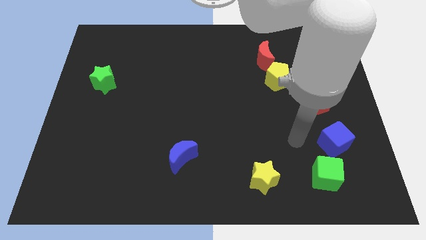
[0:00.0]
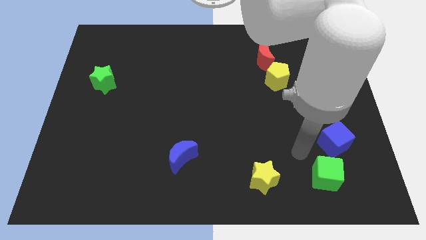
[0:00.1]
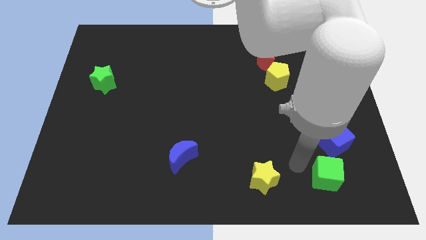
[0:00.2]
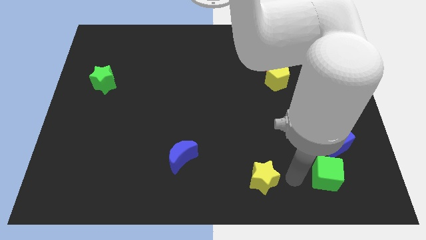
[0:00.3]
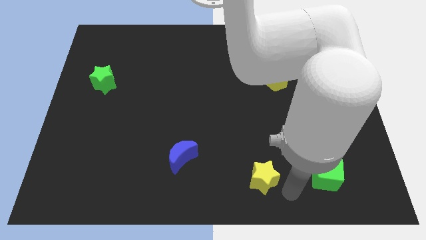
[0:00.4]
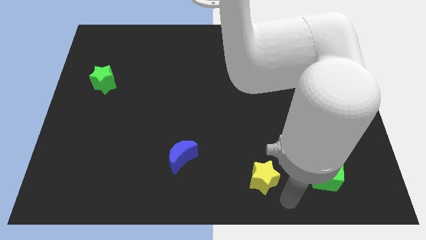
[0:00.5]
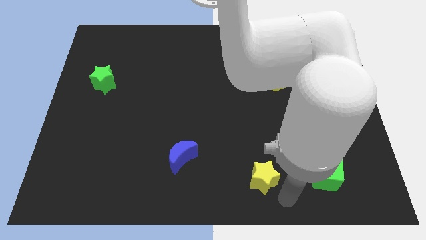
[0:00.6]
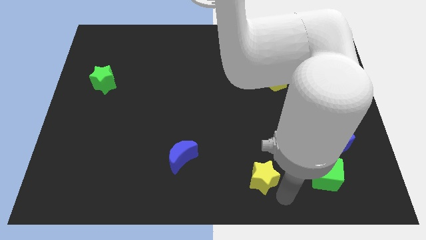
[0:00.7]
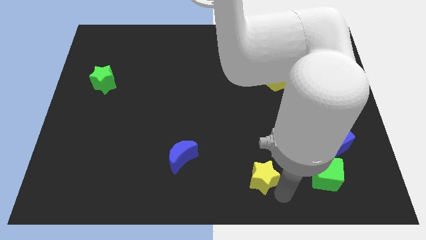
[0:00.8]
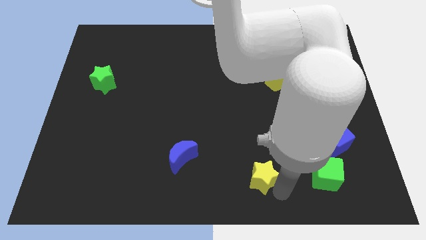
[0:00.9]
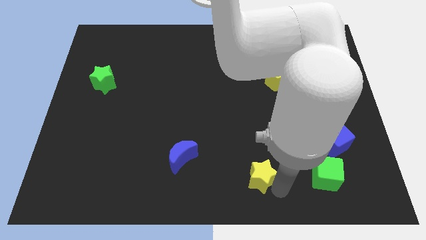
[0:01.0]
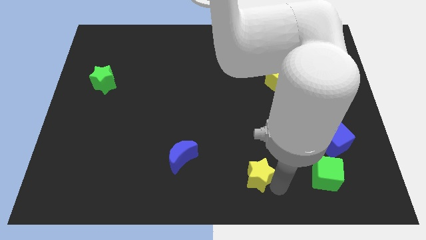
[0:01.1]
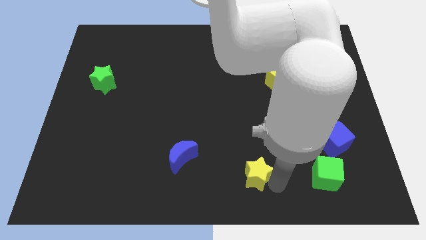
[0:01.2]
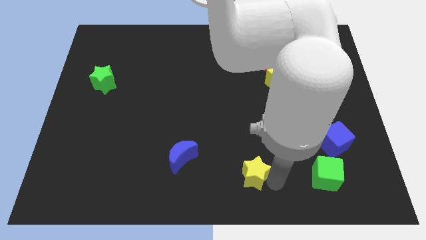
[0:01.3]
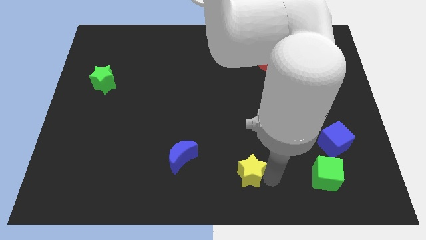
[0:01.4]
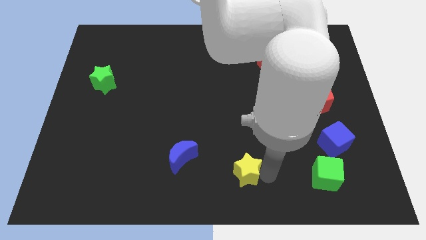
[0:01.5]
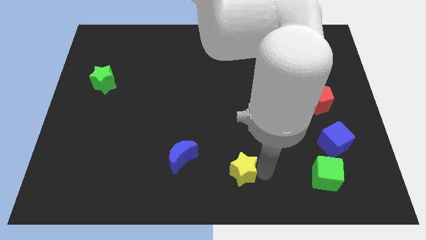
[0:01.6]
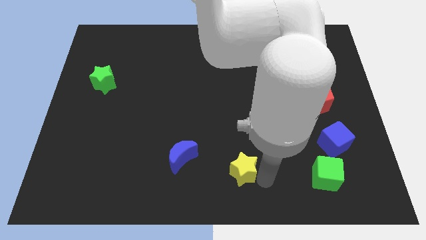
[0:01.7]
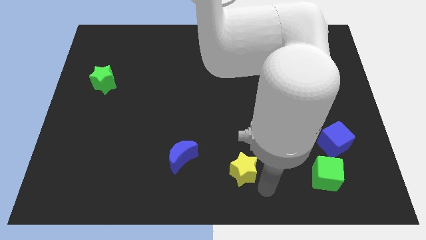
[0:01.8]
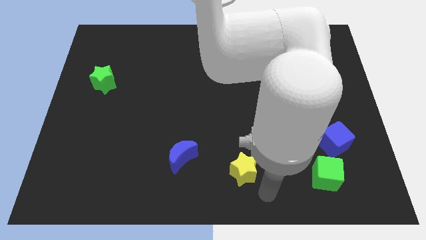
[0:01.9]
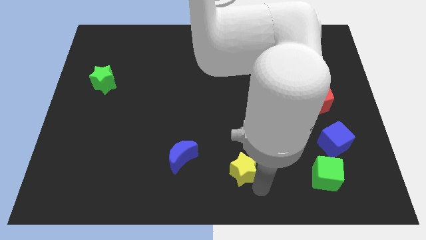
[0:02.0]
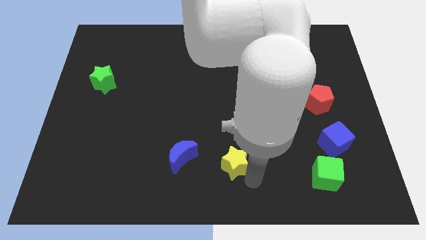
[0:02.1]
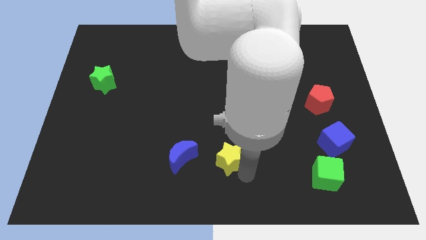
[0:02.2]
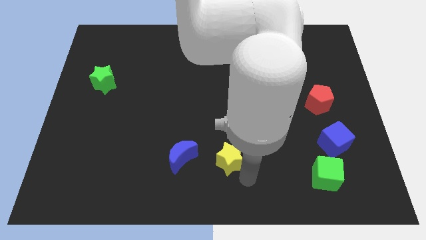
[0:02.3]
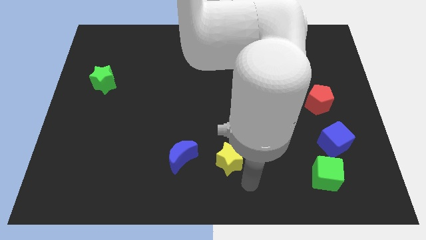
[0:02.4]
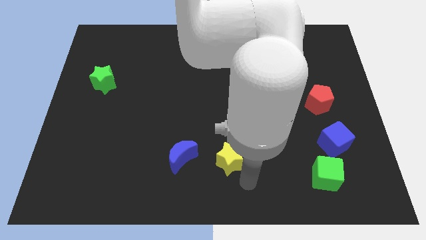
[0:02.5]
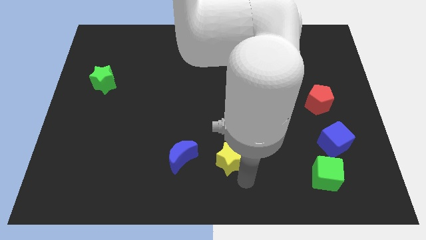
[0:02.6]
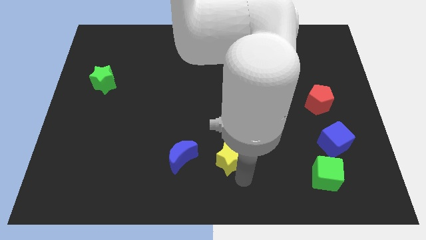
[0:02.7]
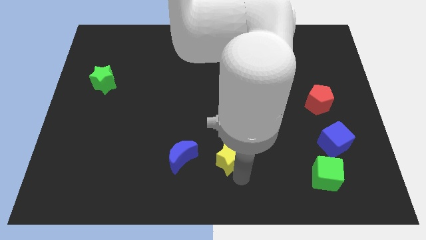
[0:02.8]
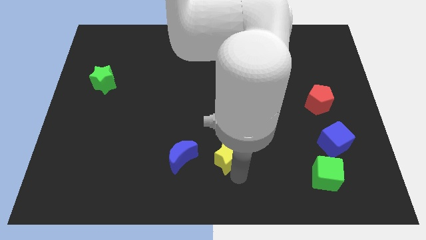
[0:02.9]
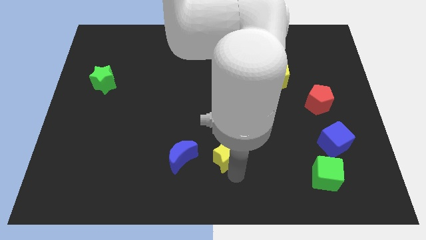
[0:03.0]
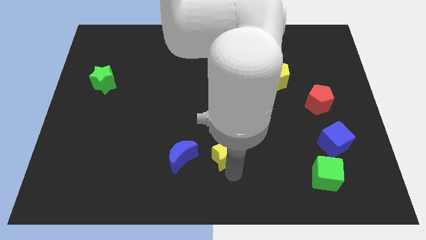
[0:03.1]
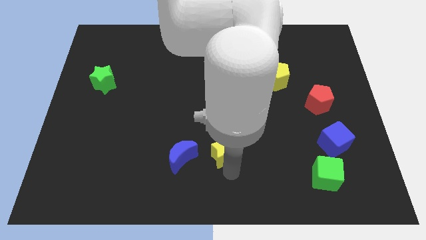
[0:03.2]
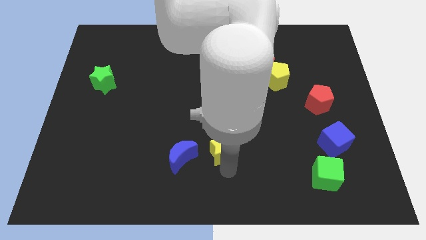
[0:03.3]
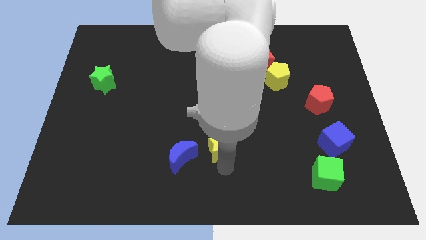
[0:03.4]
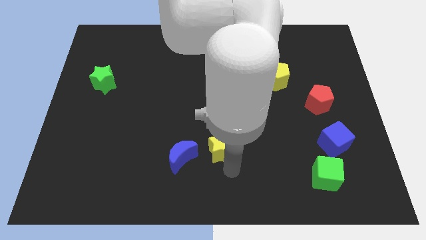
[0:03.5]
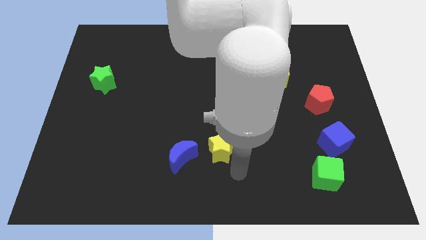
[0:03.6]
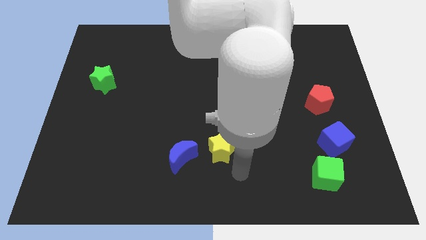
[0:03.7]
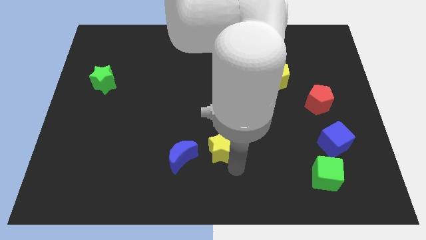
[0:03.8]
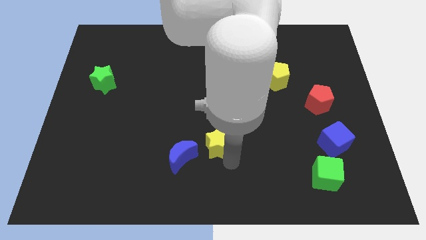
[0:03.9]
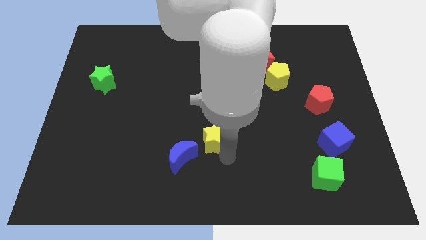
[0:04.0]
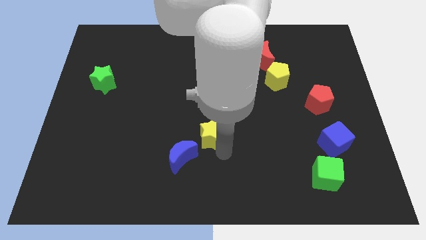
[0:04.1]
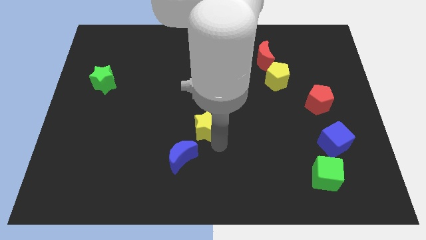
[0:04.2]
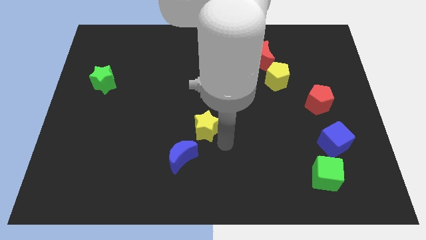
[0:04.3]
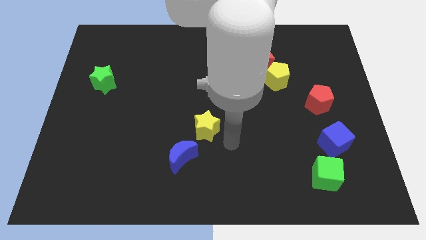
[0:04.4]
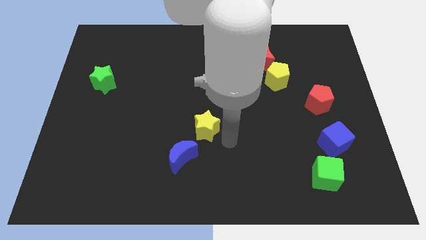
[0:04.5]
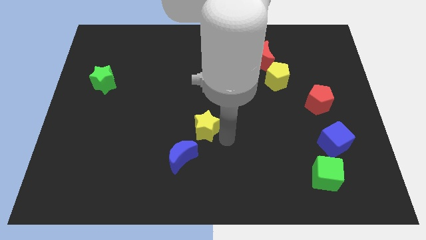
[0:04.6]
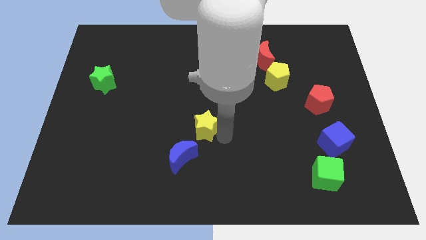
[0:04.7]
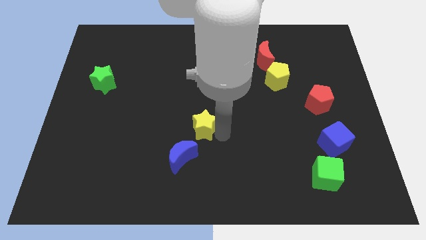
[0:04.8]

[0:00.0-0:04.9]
put the yellow star to the top of the blue moon

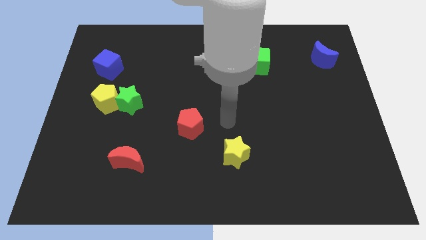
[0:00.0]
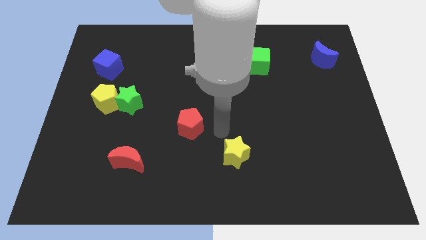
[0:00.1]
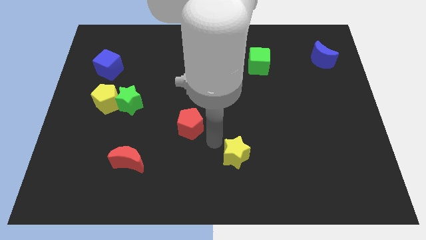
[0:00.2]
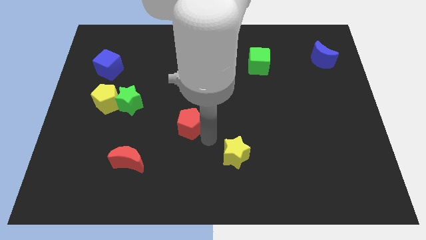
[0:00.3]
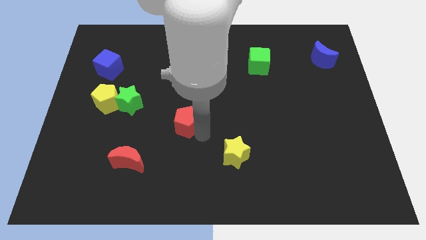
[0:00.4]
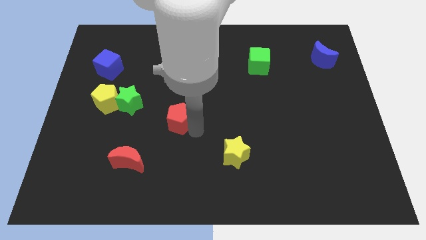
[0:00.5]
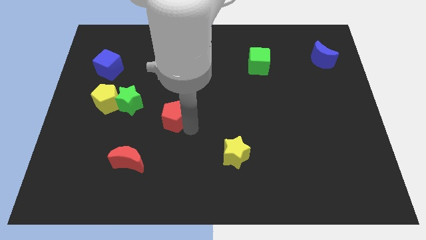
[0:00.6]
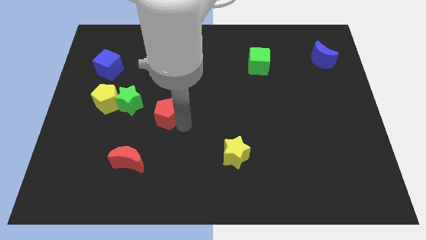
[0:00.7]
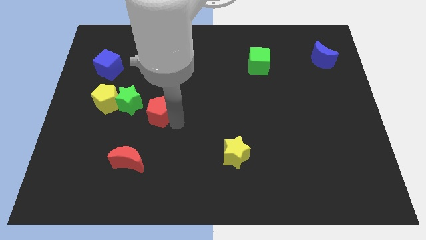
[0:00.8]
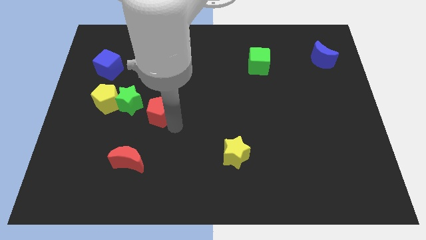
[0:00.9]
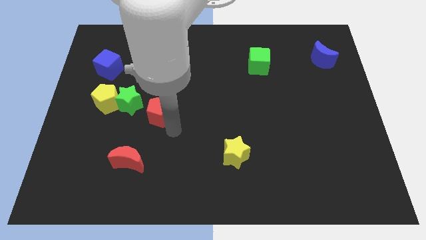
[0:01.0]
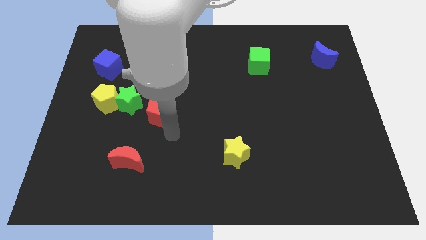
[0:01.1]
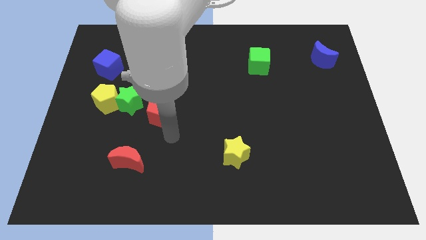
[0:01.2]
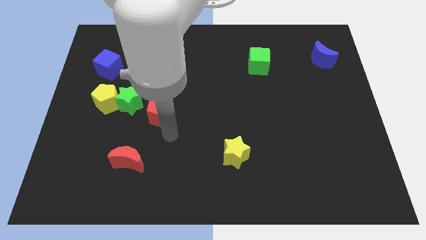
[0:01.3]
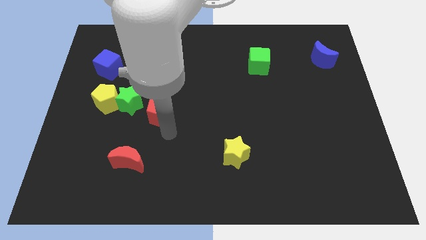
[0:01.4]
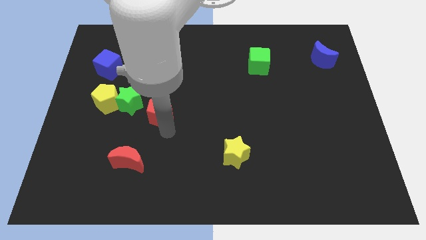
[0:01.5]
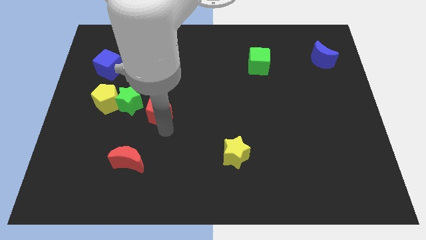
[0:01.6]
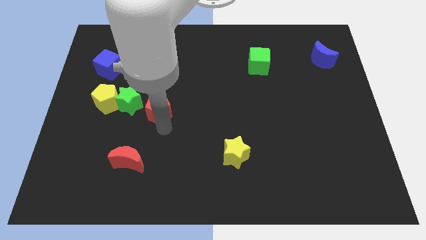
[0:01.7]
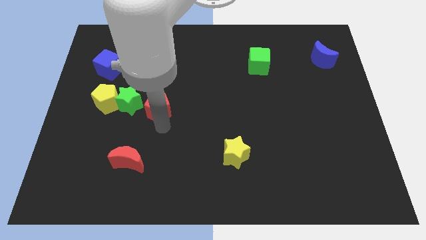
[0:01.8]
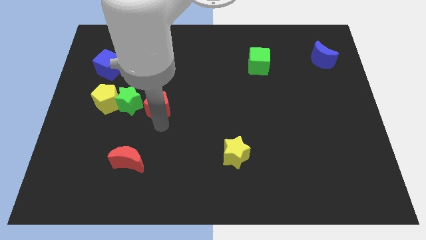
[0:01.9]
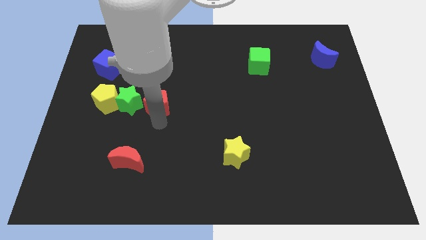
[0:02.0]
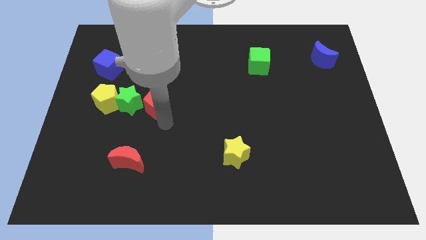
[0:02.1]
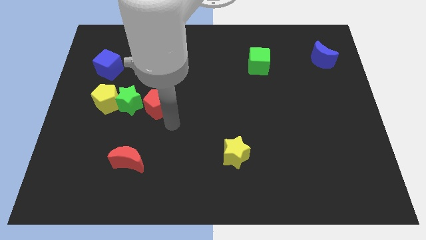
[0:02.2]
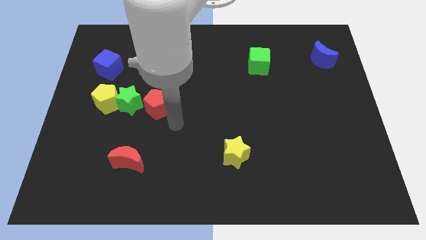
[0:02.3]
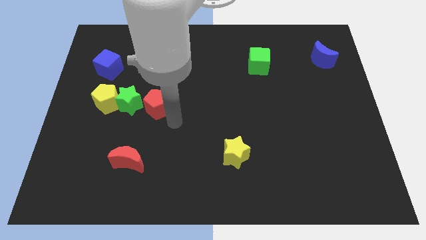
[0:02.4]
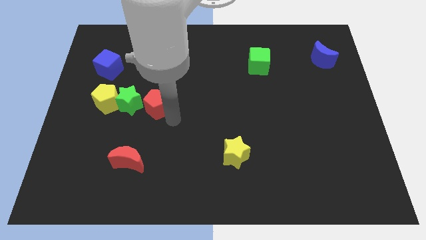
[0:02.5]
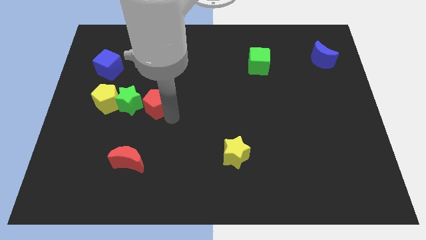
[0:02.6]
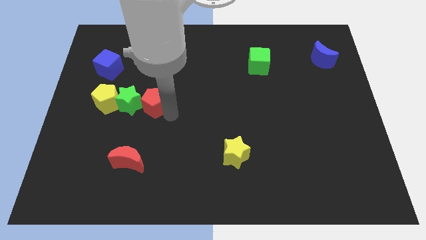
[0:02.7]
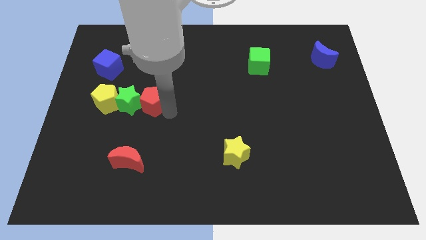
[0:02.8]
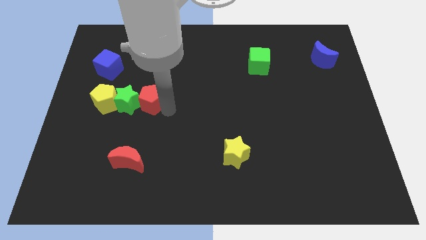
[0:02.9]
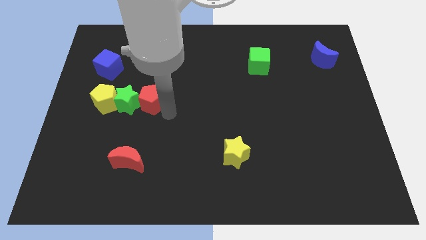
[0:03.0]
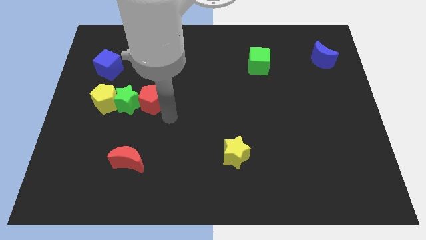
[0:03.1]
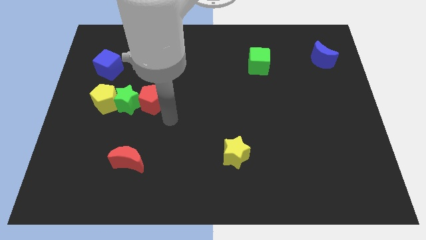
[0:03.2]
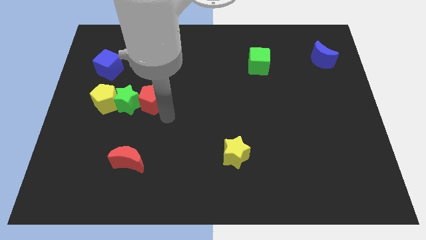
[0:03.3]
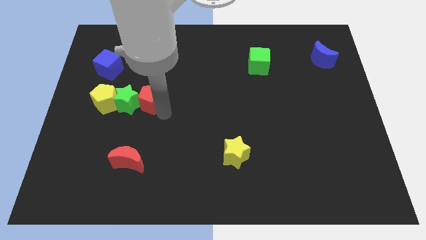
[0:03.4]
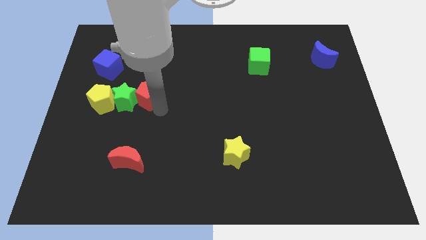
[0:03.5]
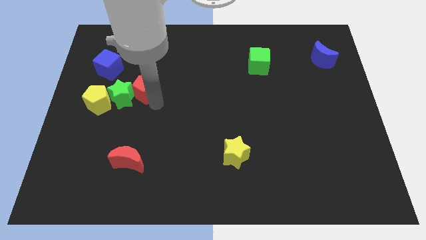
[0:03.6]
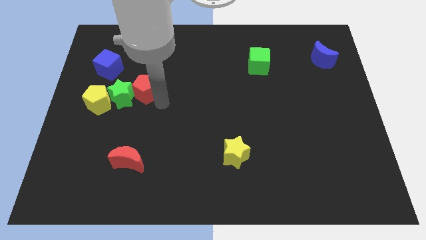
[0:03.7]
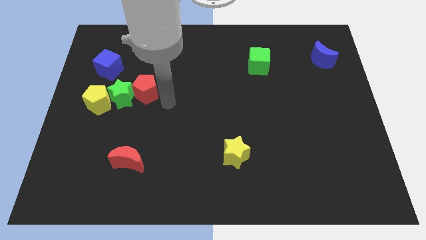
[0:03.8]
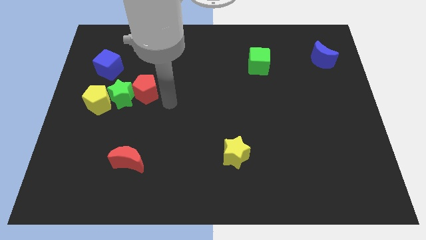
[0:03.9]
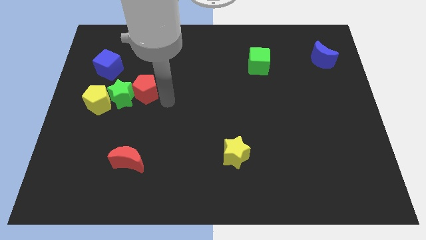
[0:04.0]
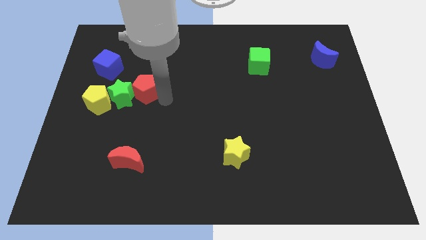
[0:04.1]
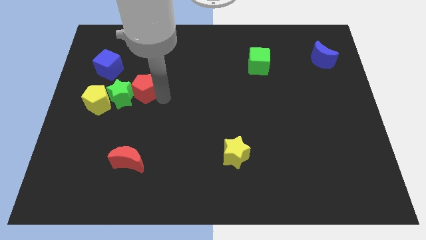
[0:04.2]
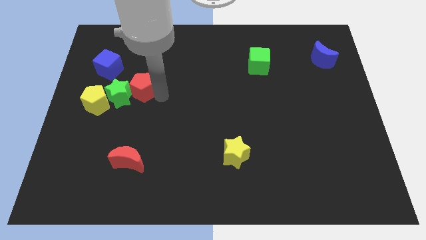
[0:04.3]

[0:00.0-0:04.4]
slide the red pentagon to the bottom right of the blue cube
